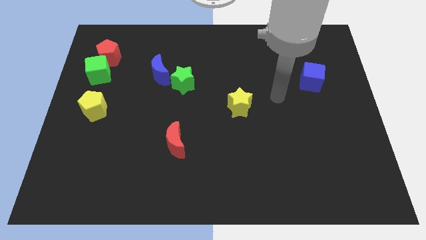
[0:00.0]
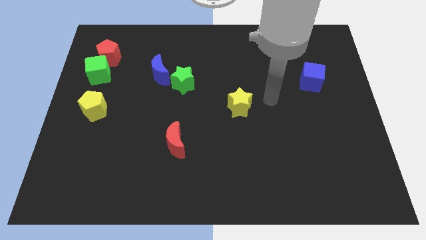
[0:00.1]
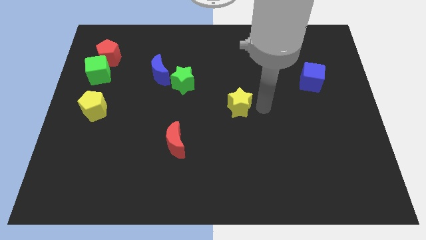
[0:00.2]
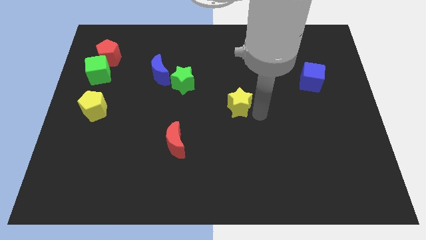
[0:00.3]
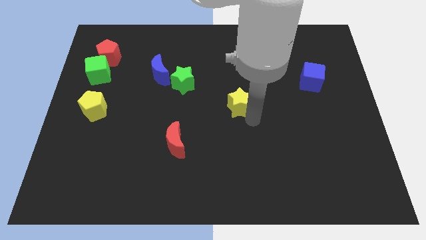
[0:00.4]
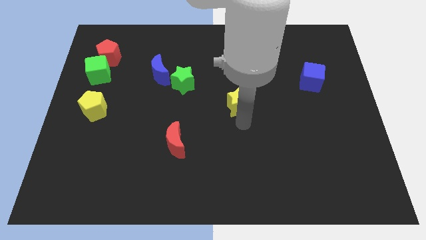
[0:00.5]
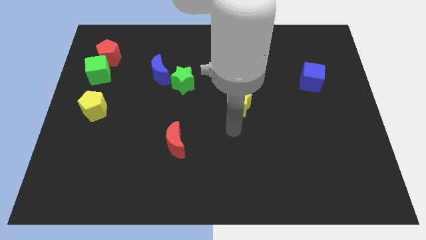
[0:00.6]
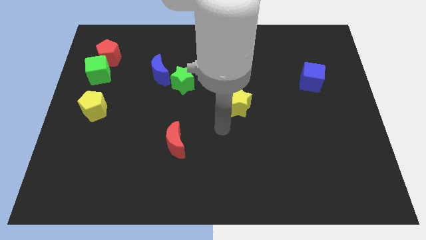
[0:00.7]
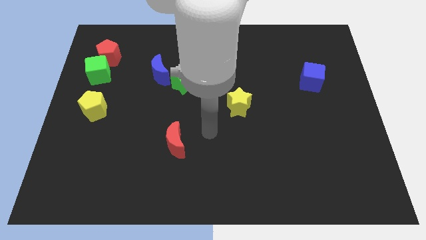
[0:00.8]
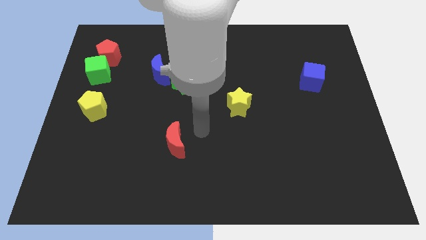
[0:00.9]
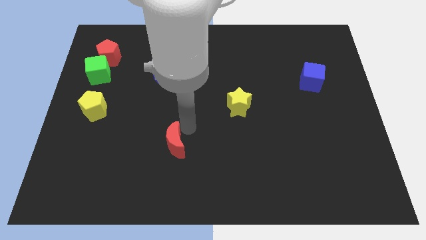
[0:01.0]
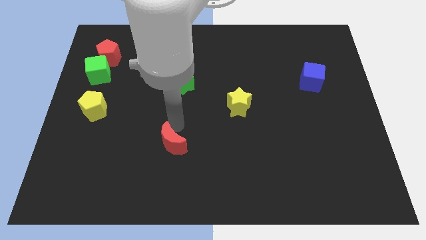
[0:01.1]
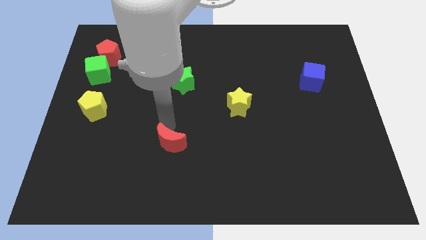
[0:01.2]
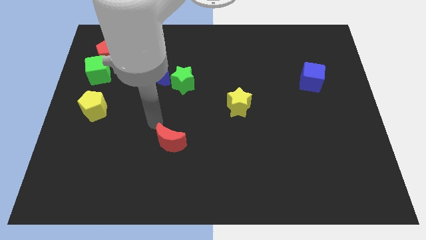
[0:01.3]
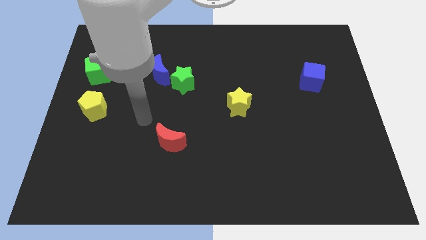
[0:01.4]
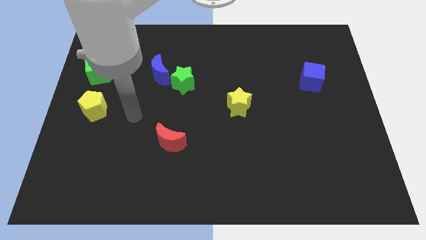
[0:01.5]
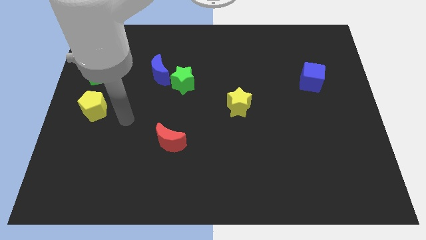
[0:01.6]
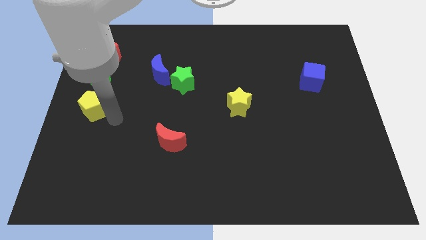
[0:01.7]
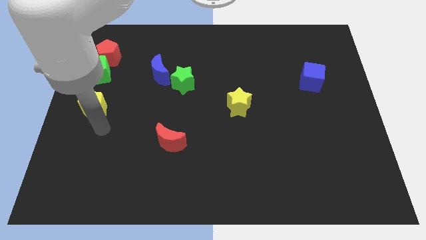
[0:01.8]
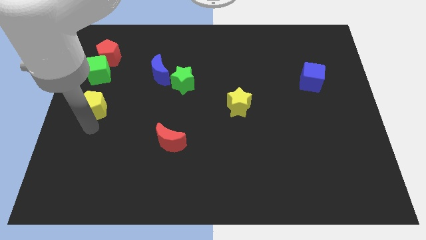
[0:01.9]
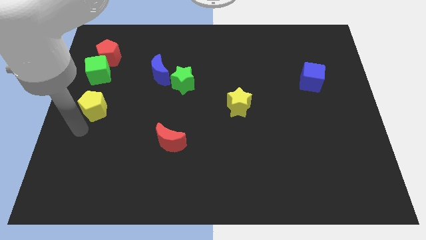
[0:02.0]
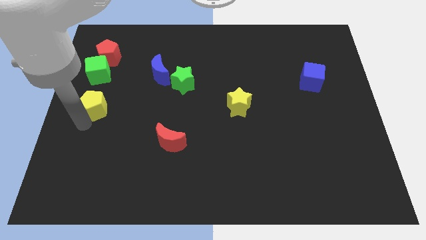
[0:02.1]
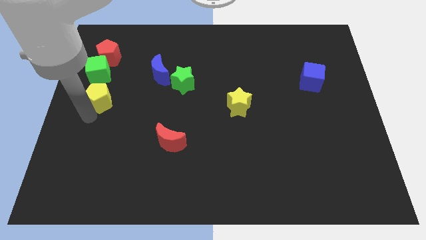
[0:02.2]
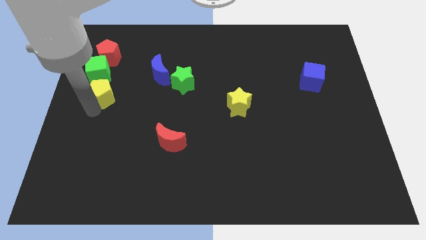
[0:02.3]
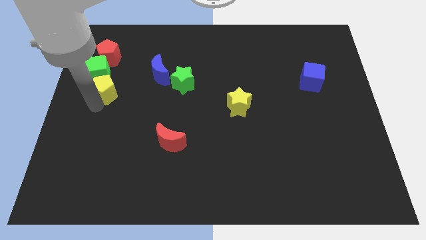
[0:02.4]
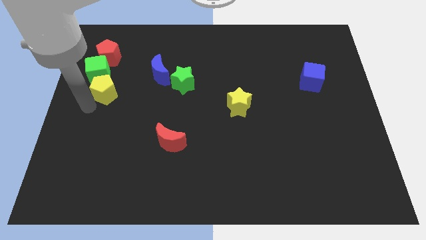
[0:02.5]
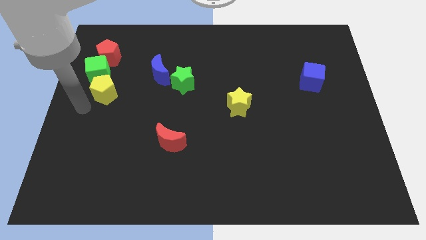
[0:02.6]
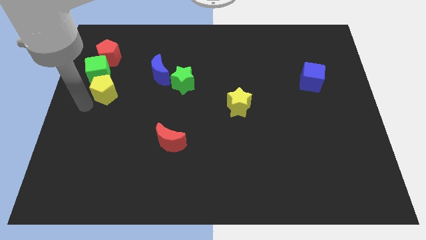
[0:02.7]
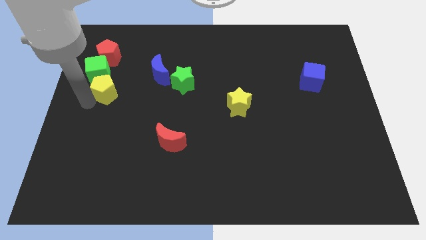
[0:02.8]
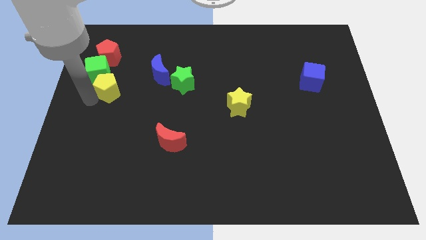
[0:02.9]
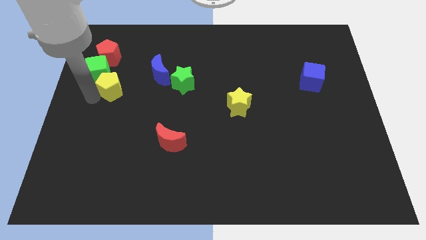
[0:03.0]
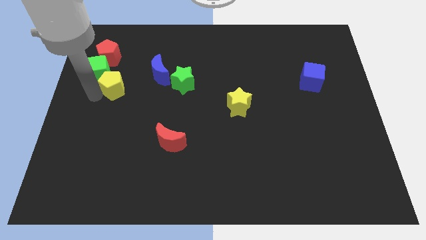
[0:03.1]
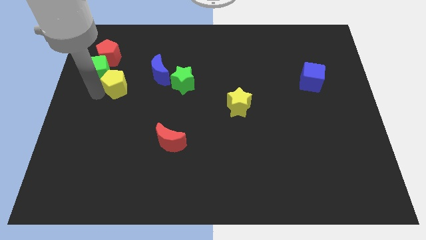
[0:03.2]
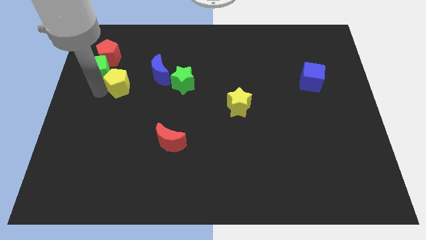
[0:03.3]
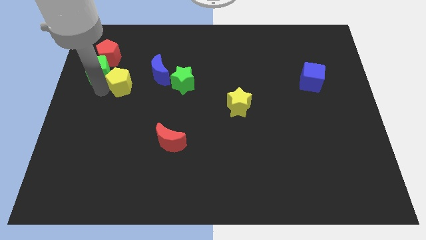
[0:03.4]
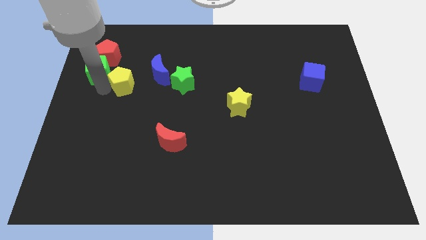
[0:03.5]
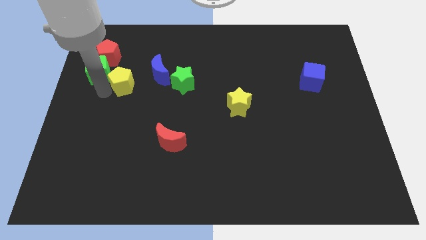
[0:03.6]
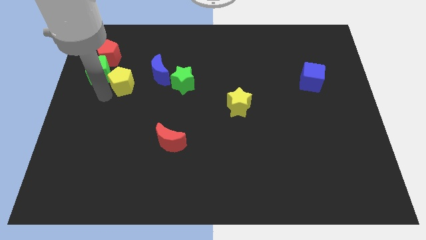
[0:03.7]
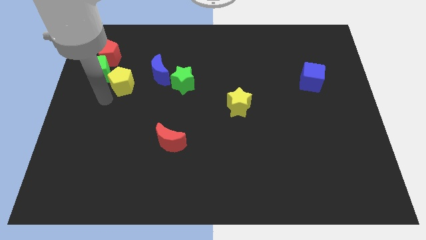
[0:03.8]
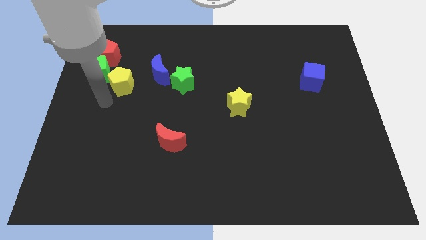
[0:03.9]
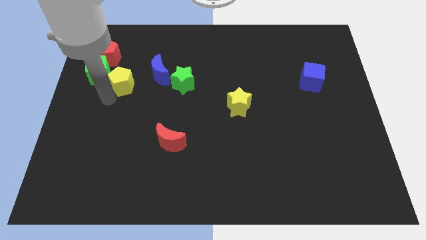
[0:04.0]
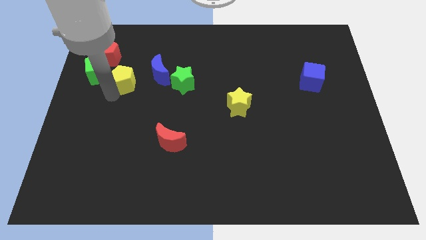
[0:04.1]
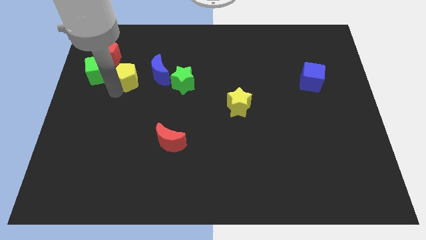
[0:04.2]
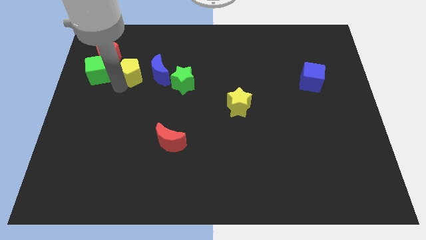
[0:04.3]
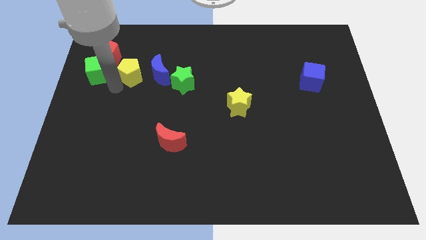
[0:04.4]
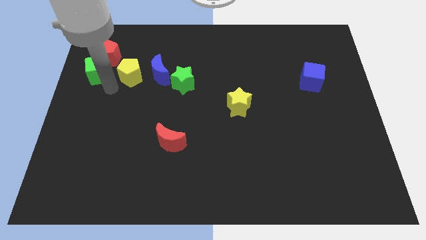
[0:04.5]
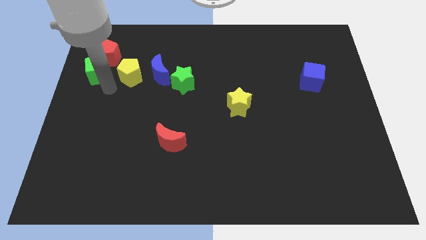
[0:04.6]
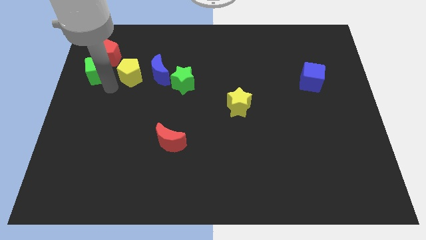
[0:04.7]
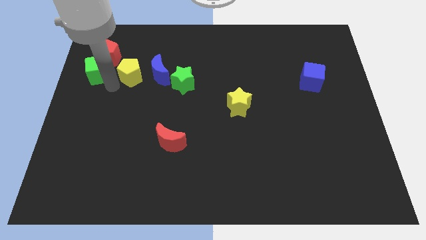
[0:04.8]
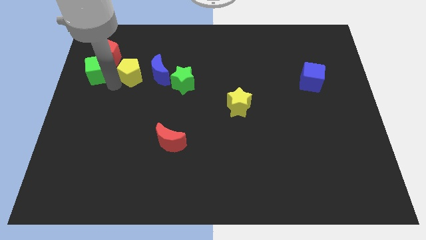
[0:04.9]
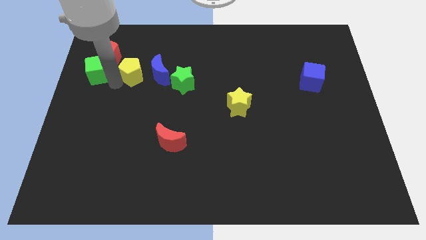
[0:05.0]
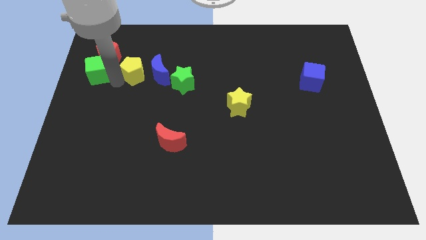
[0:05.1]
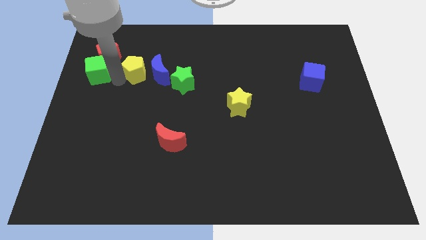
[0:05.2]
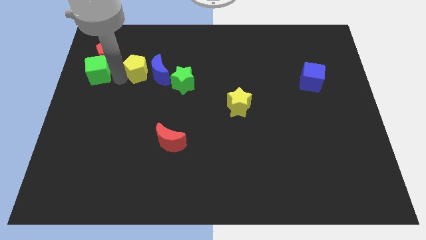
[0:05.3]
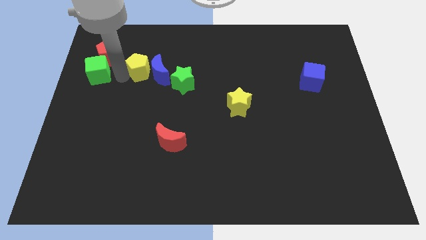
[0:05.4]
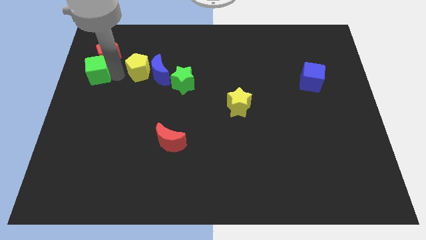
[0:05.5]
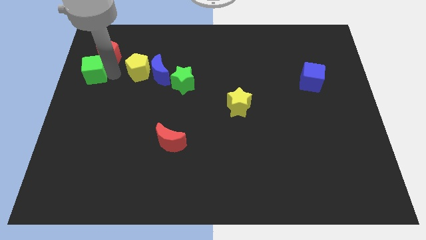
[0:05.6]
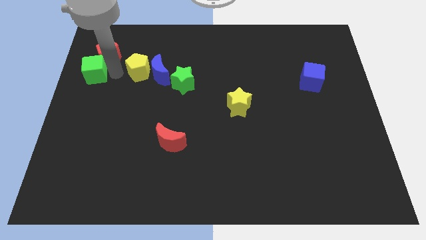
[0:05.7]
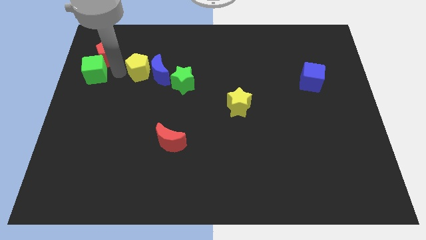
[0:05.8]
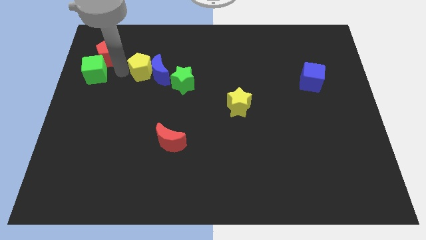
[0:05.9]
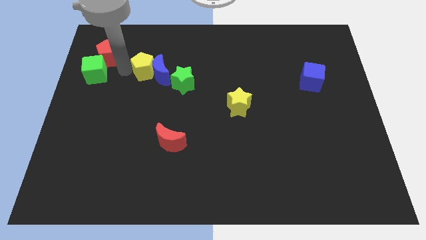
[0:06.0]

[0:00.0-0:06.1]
put the yellow pentagon to the top left side of the green star

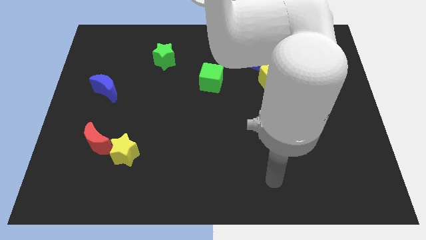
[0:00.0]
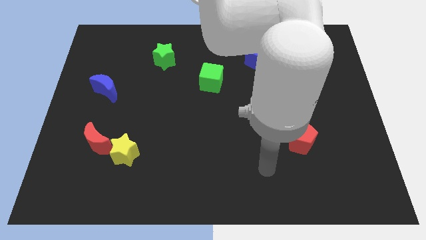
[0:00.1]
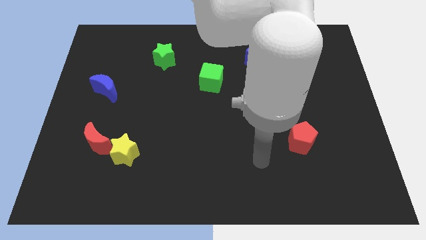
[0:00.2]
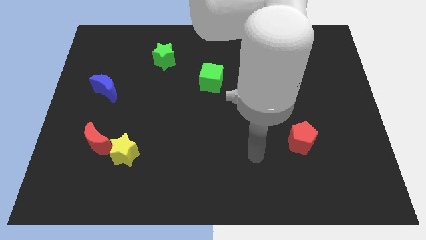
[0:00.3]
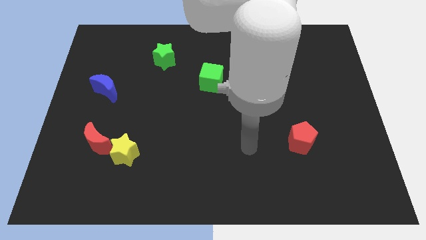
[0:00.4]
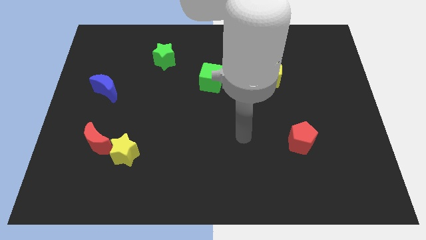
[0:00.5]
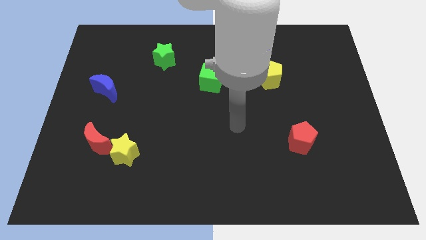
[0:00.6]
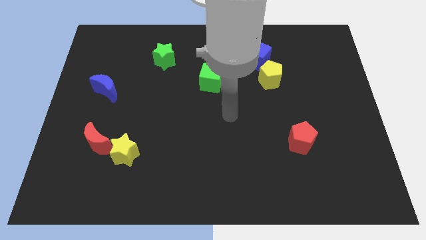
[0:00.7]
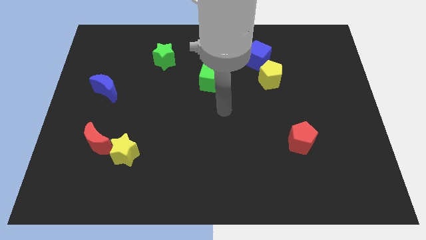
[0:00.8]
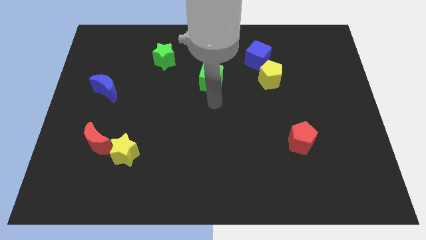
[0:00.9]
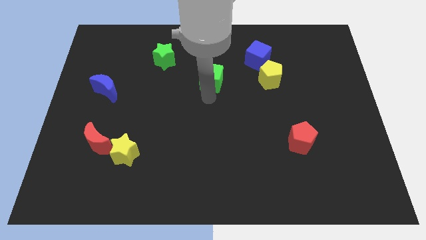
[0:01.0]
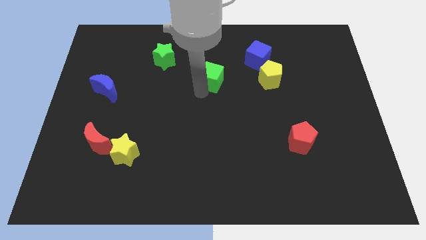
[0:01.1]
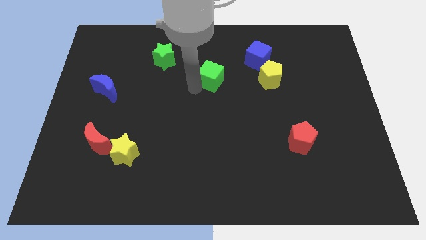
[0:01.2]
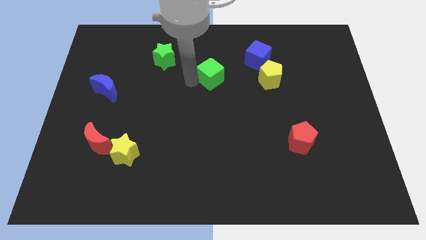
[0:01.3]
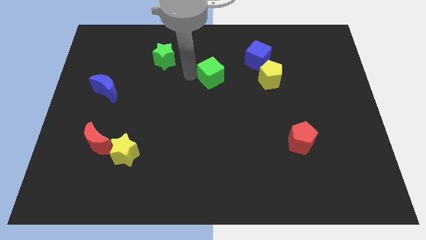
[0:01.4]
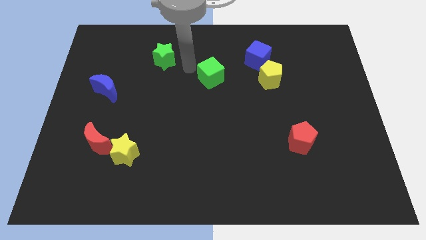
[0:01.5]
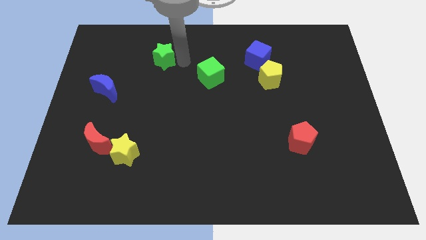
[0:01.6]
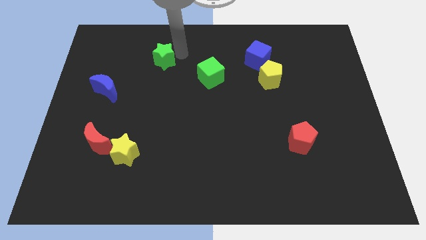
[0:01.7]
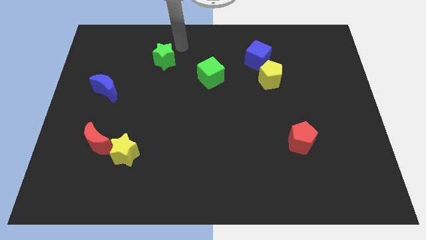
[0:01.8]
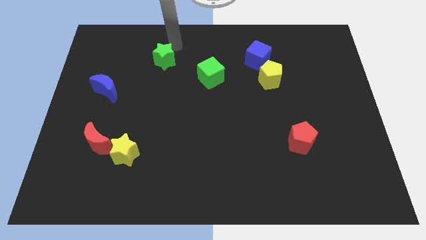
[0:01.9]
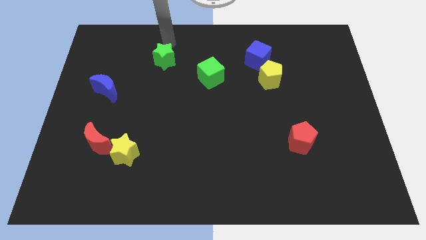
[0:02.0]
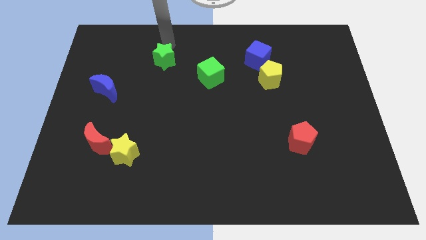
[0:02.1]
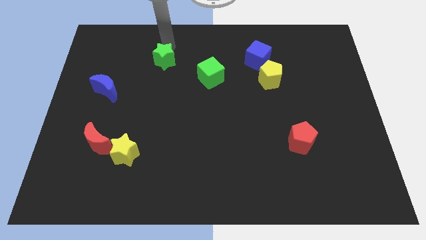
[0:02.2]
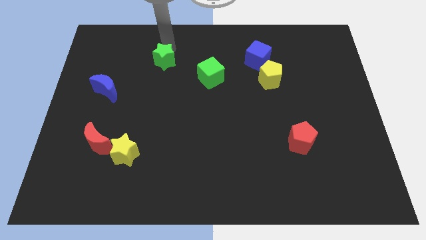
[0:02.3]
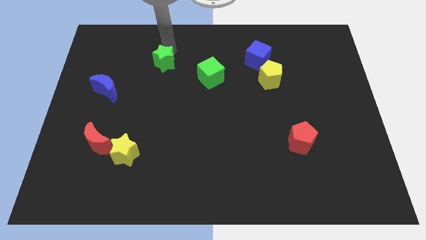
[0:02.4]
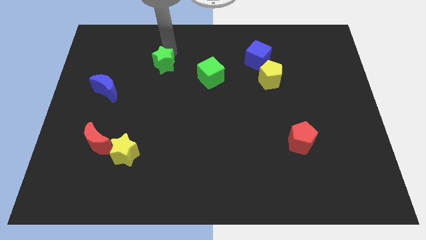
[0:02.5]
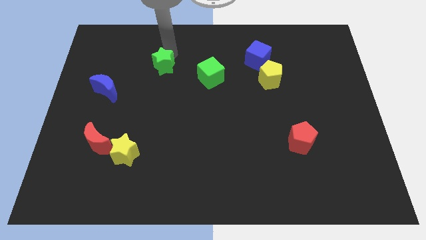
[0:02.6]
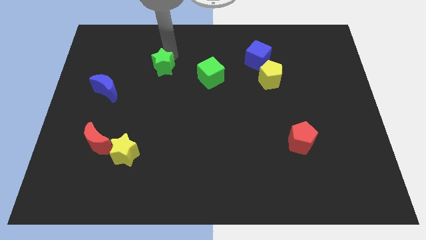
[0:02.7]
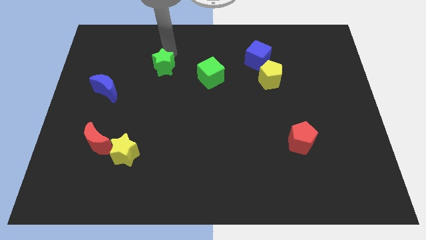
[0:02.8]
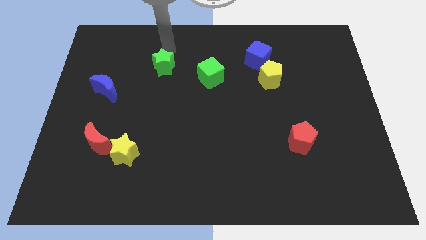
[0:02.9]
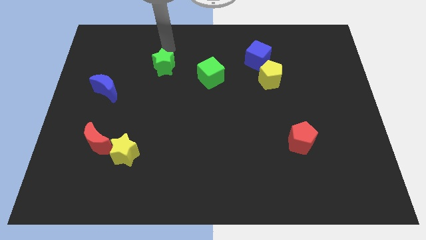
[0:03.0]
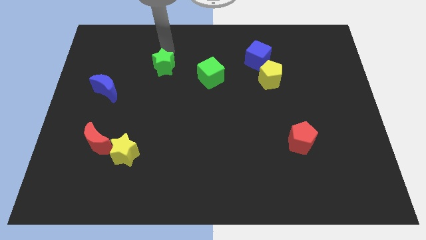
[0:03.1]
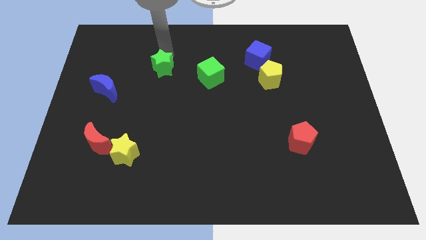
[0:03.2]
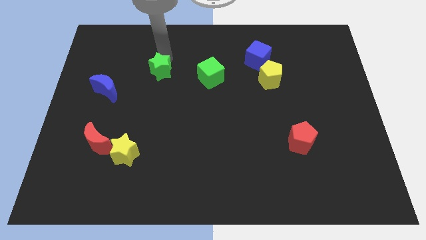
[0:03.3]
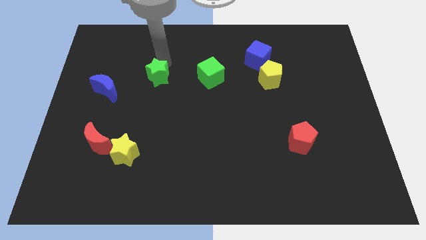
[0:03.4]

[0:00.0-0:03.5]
push the green star right of the blue moon
